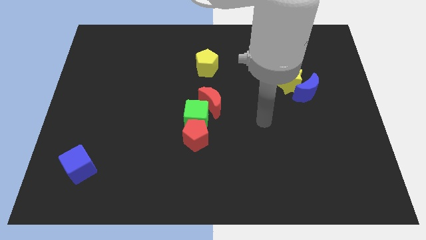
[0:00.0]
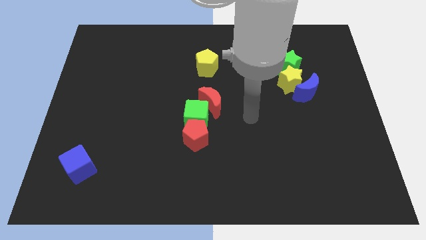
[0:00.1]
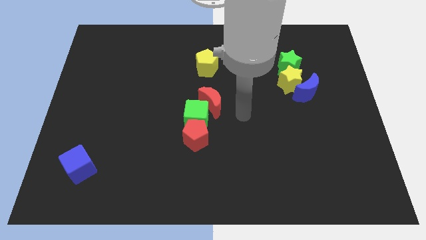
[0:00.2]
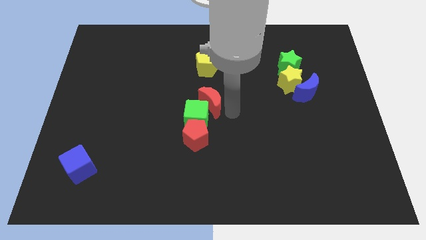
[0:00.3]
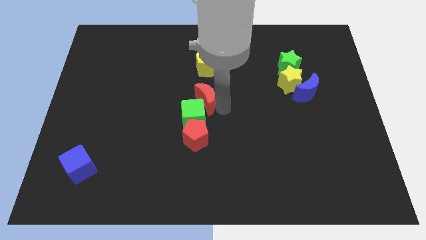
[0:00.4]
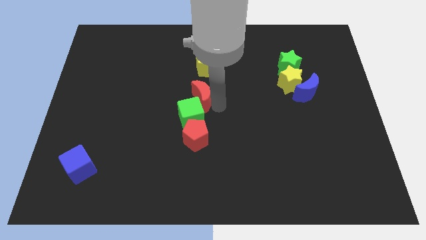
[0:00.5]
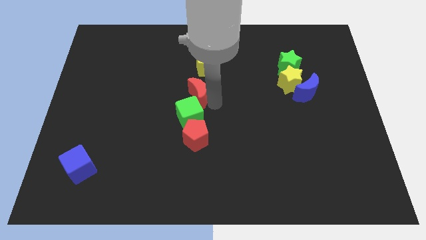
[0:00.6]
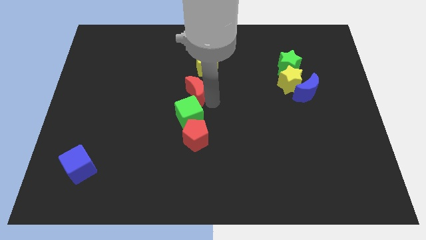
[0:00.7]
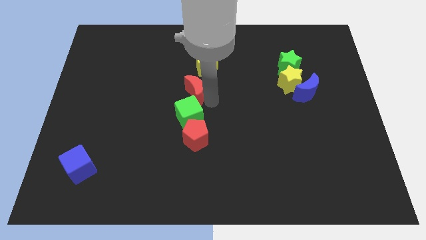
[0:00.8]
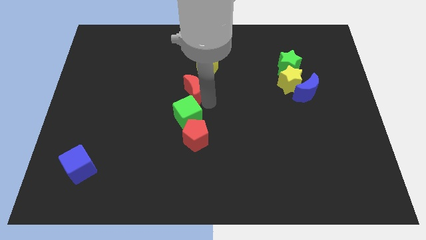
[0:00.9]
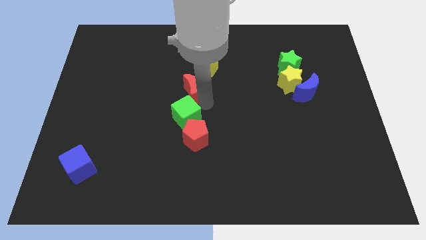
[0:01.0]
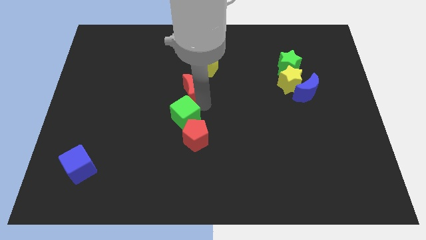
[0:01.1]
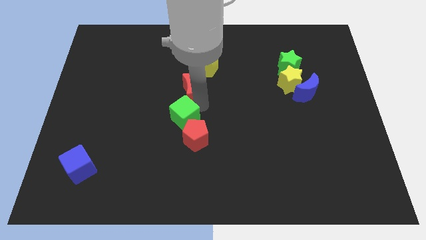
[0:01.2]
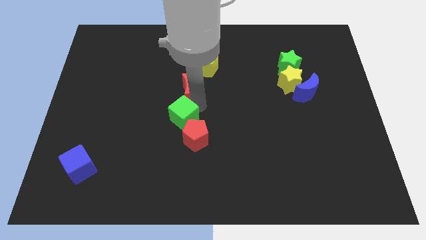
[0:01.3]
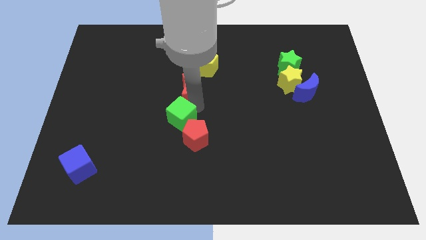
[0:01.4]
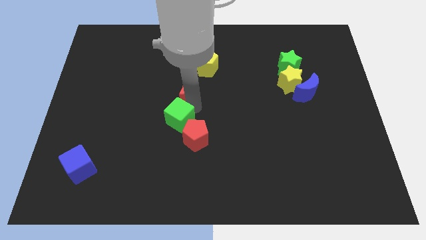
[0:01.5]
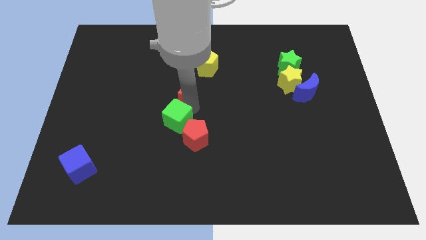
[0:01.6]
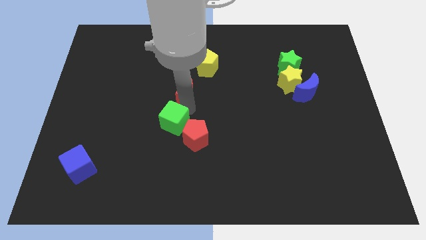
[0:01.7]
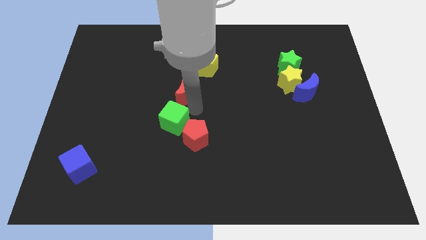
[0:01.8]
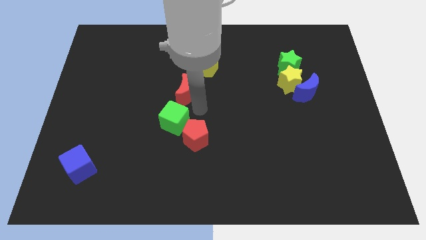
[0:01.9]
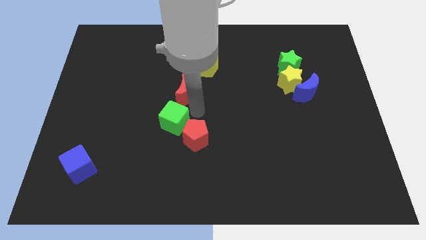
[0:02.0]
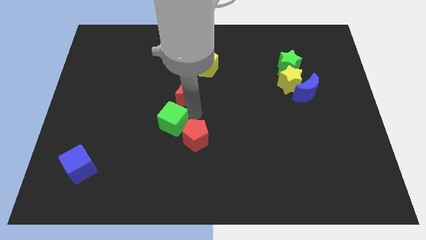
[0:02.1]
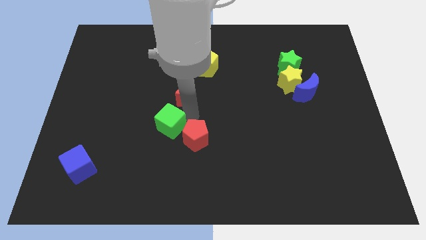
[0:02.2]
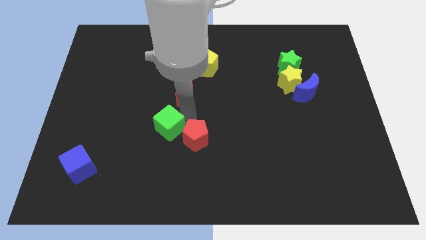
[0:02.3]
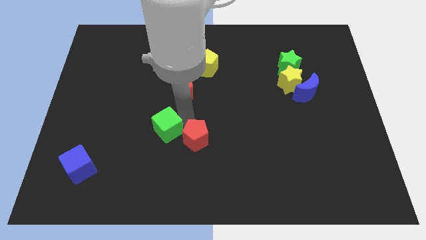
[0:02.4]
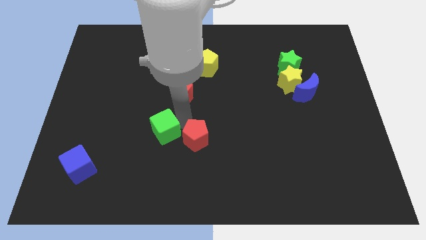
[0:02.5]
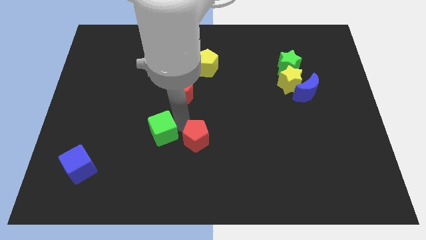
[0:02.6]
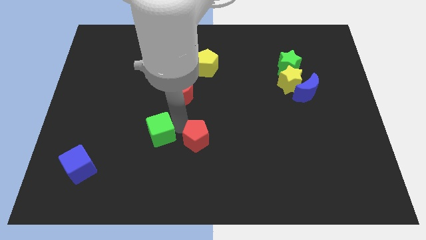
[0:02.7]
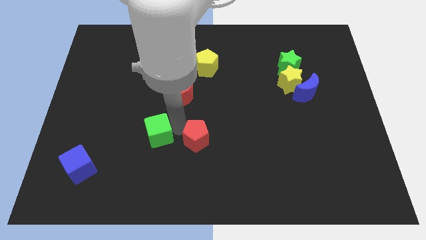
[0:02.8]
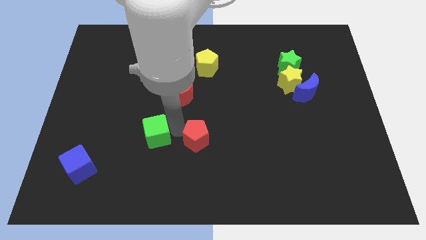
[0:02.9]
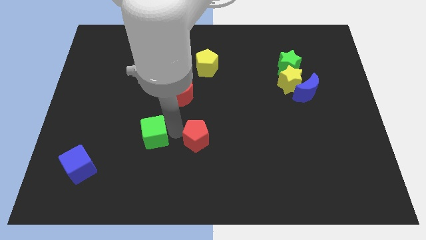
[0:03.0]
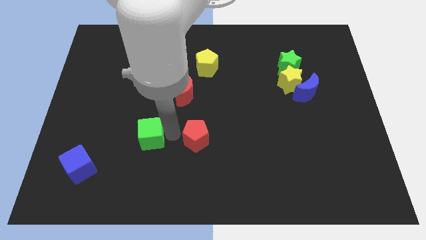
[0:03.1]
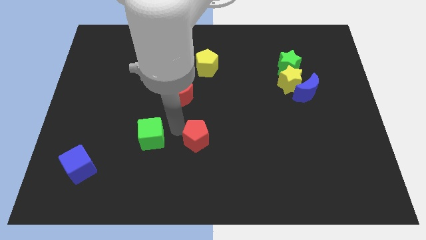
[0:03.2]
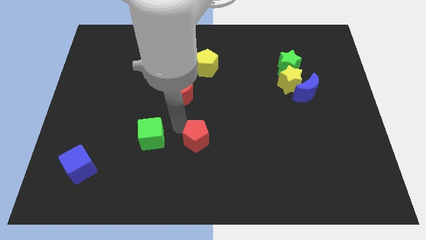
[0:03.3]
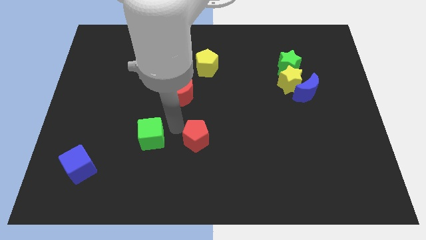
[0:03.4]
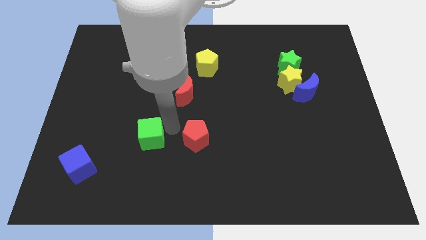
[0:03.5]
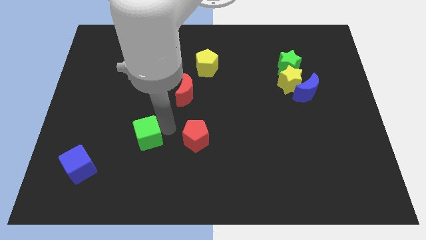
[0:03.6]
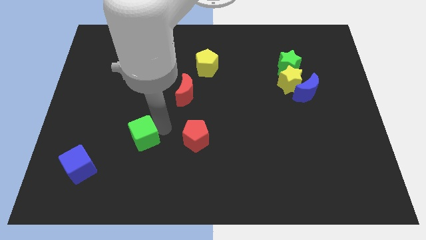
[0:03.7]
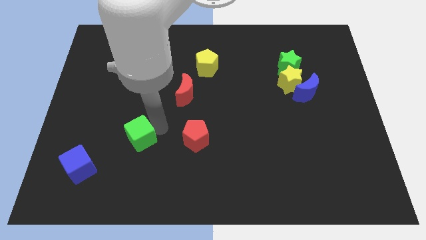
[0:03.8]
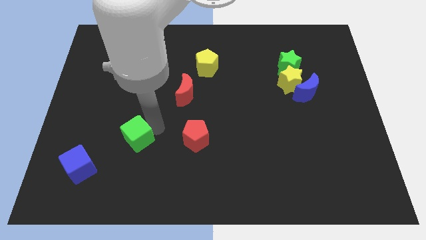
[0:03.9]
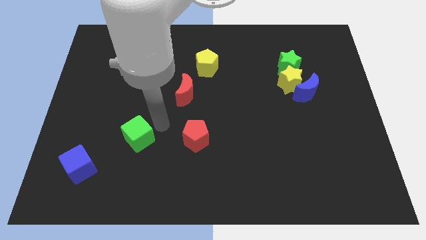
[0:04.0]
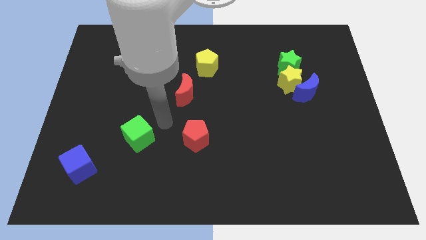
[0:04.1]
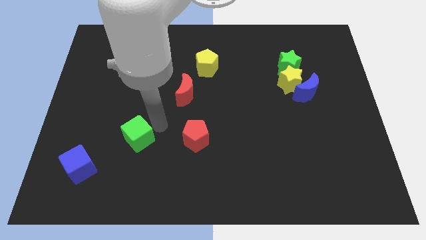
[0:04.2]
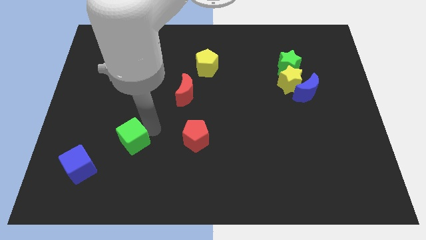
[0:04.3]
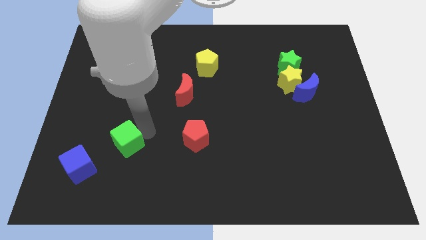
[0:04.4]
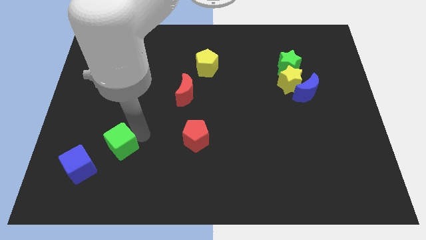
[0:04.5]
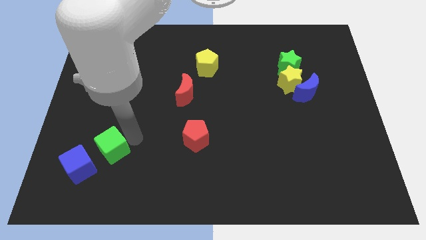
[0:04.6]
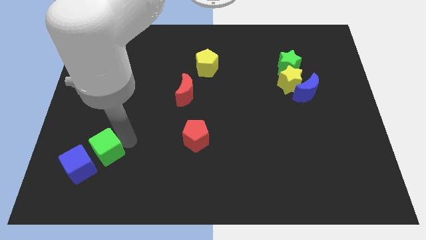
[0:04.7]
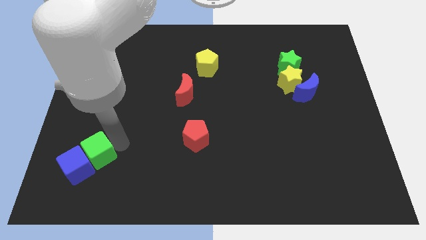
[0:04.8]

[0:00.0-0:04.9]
put the green cube towards the blue cube

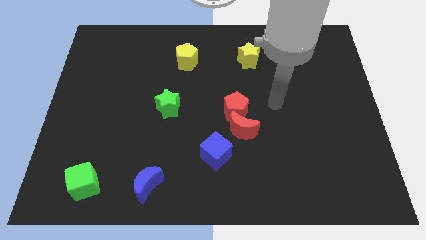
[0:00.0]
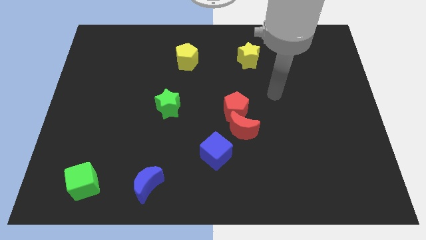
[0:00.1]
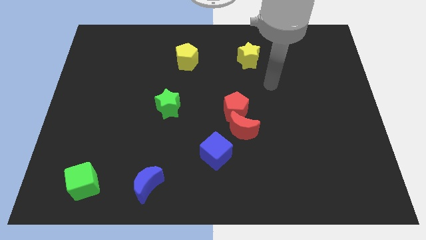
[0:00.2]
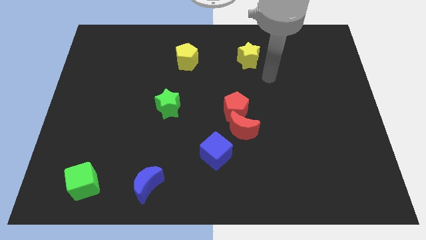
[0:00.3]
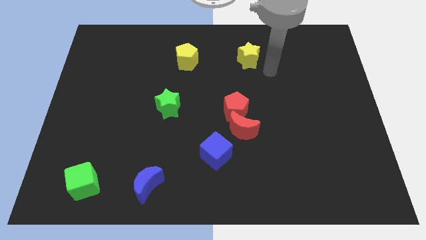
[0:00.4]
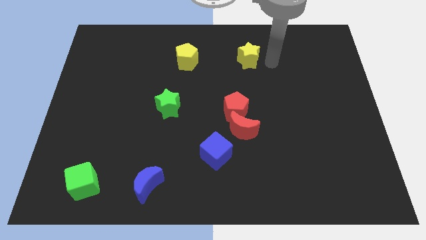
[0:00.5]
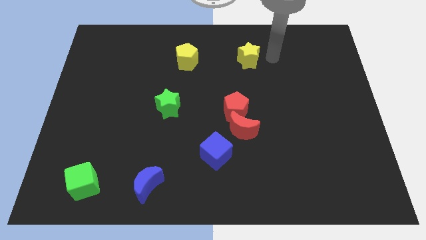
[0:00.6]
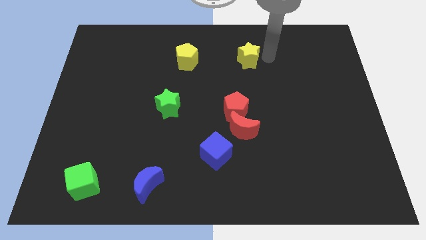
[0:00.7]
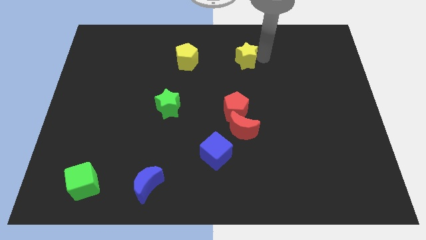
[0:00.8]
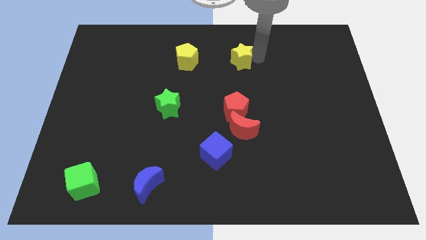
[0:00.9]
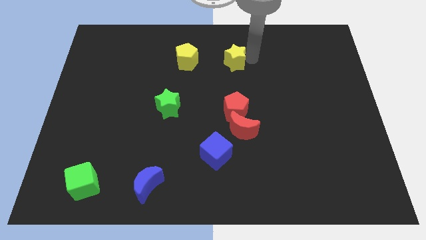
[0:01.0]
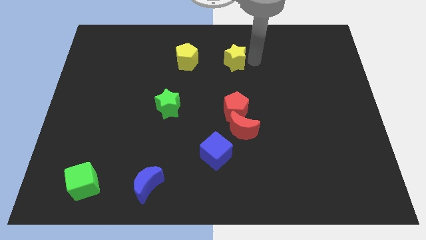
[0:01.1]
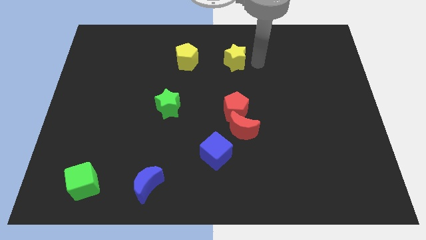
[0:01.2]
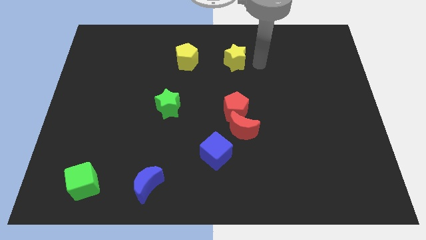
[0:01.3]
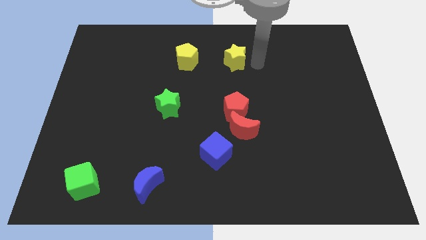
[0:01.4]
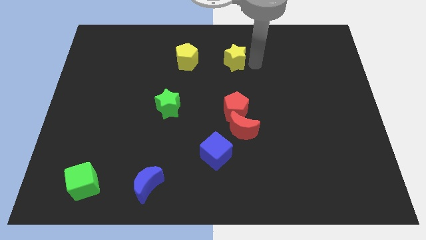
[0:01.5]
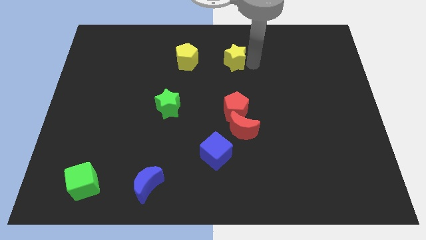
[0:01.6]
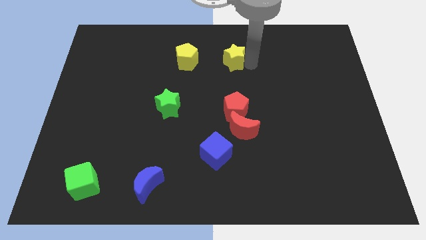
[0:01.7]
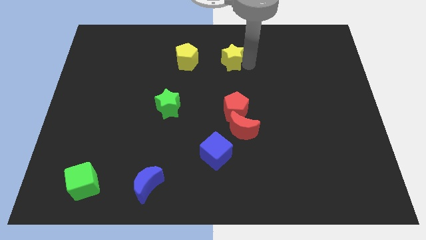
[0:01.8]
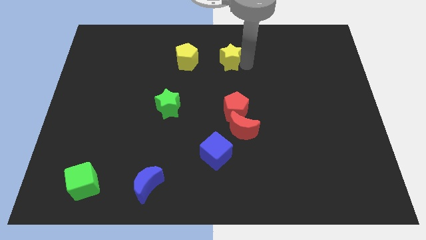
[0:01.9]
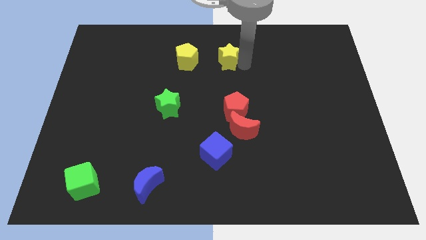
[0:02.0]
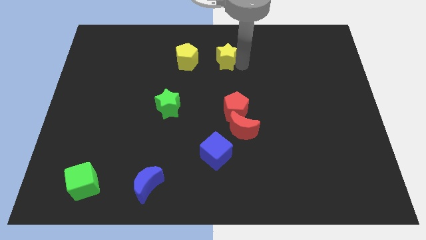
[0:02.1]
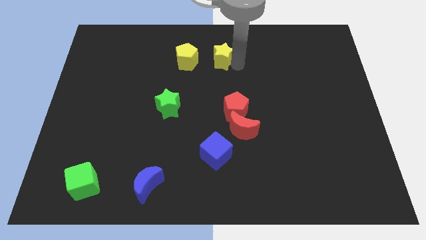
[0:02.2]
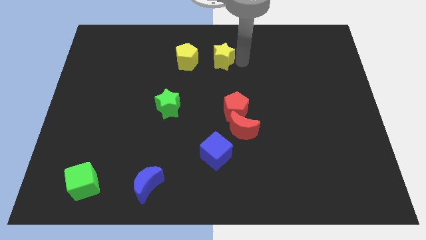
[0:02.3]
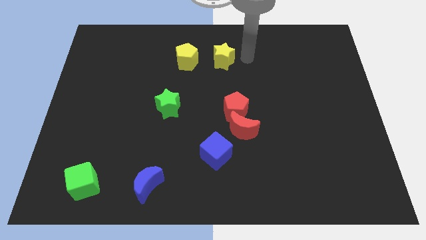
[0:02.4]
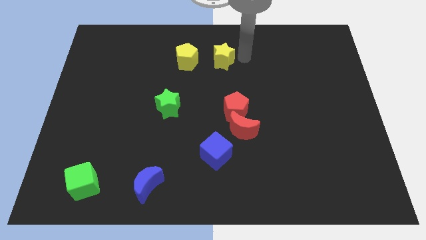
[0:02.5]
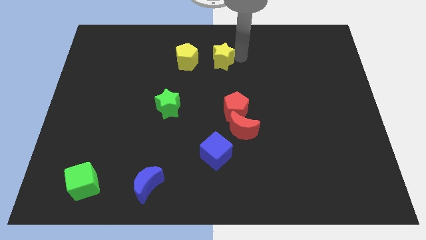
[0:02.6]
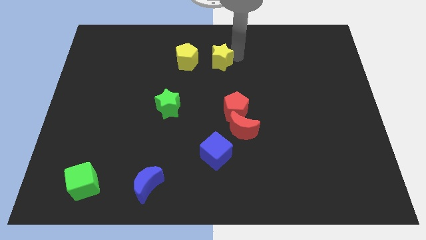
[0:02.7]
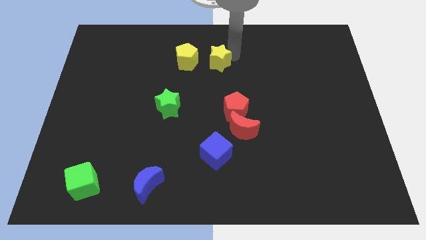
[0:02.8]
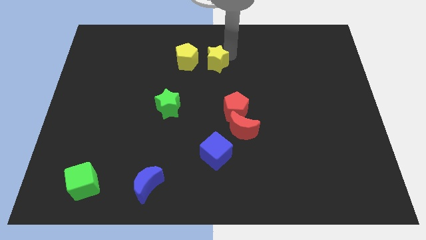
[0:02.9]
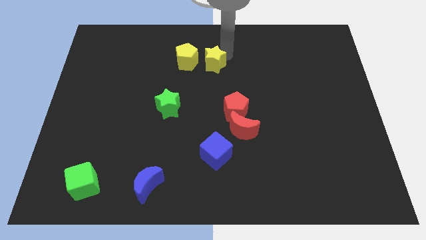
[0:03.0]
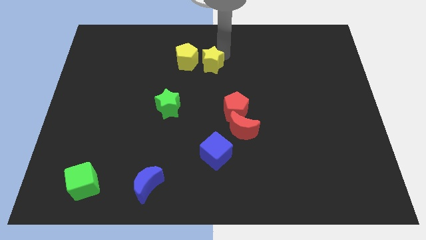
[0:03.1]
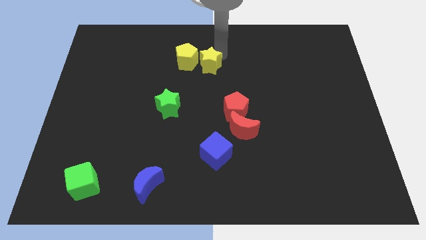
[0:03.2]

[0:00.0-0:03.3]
push the yellow star next to the yellow pentagon
